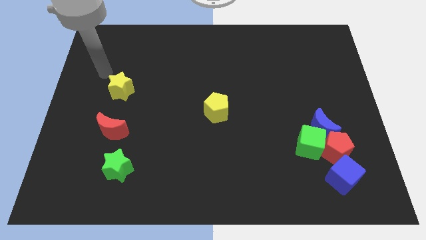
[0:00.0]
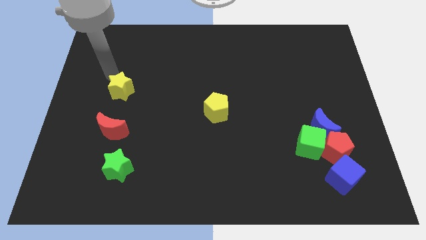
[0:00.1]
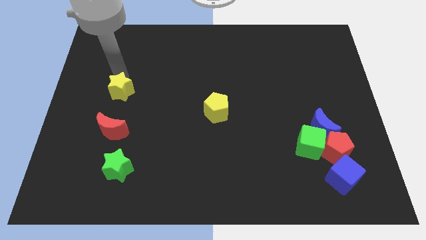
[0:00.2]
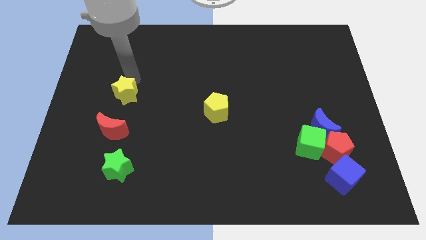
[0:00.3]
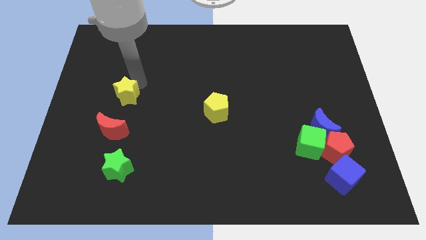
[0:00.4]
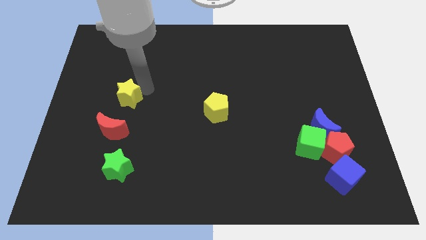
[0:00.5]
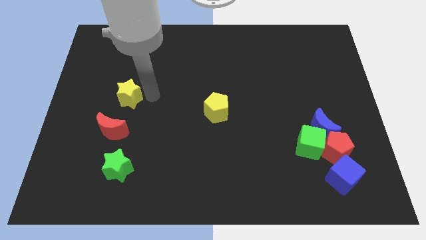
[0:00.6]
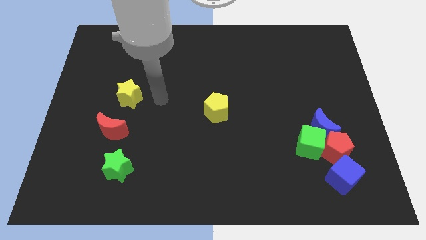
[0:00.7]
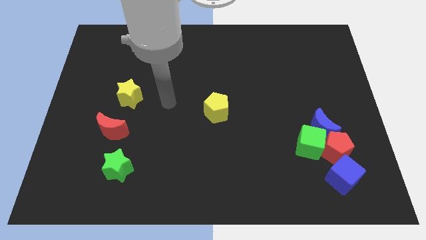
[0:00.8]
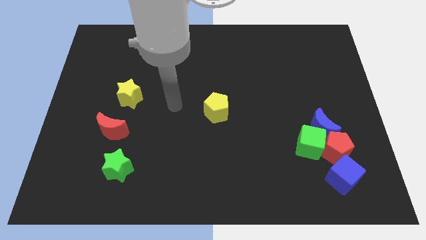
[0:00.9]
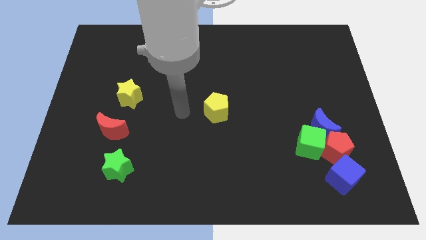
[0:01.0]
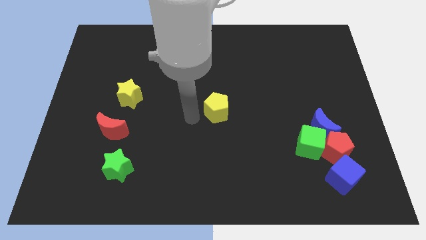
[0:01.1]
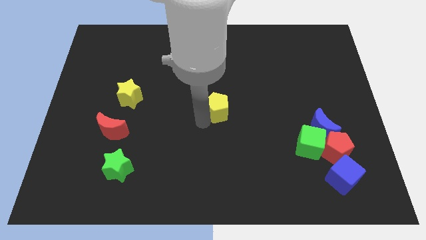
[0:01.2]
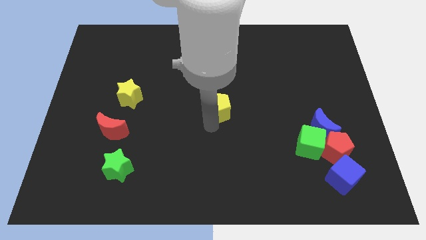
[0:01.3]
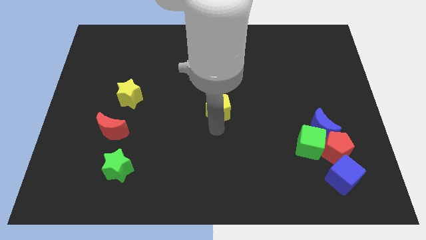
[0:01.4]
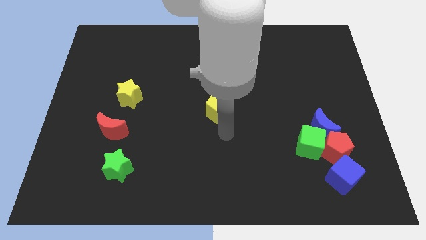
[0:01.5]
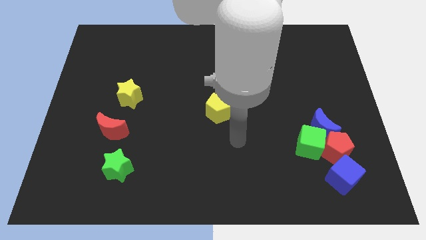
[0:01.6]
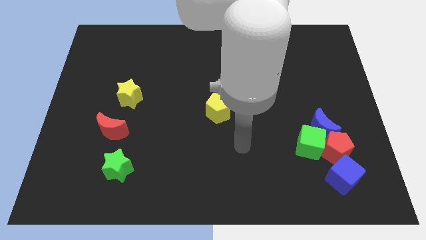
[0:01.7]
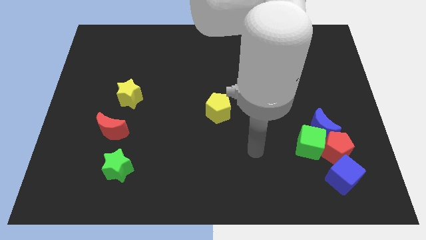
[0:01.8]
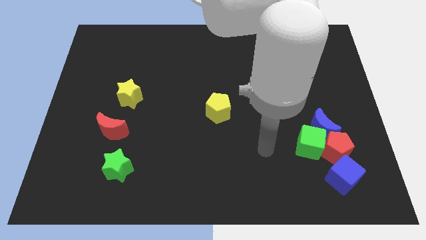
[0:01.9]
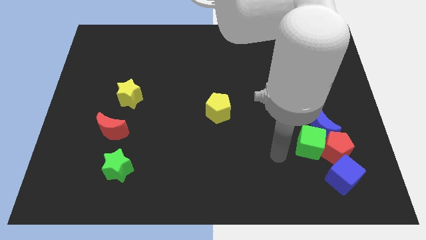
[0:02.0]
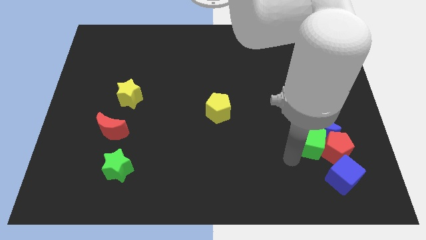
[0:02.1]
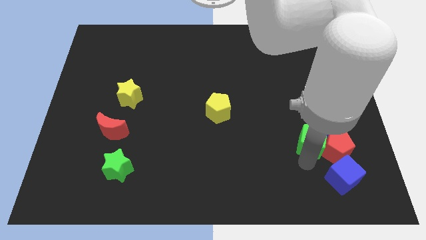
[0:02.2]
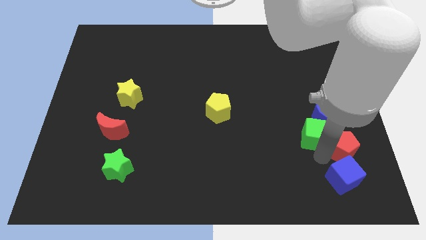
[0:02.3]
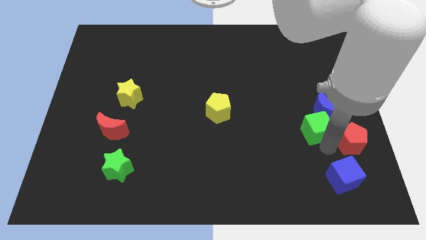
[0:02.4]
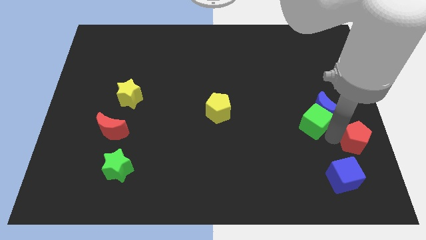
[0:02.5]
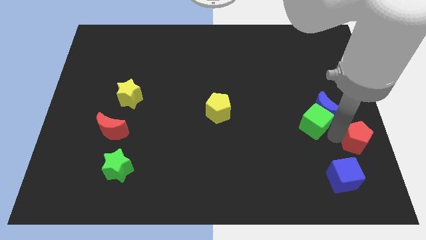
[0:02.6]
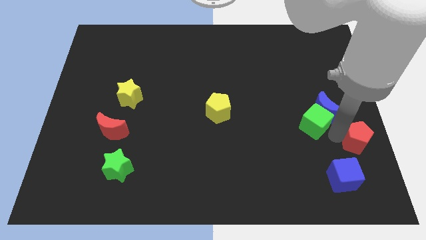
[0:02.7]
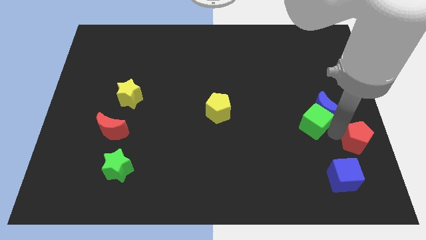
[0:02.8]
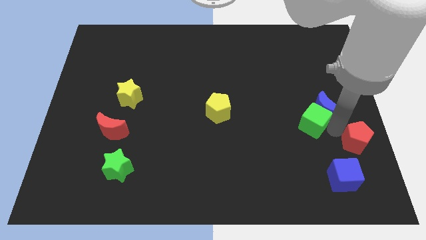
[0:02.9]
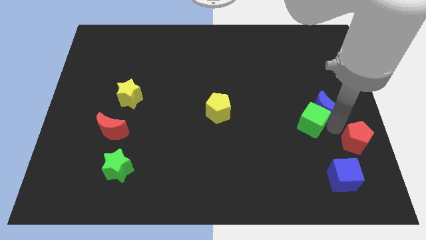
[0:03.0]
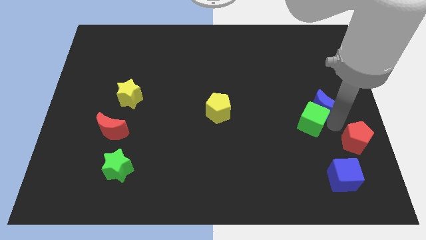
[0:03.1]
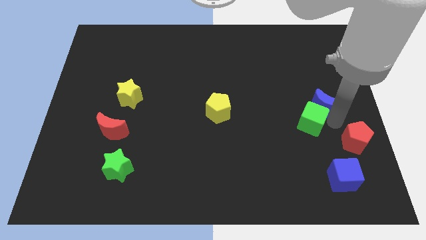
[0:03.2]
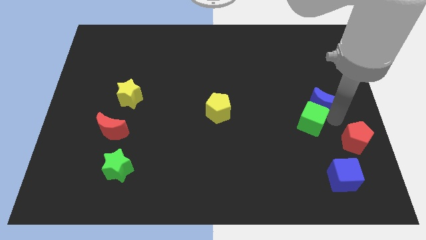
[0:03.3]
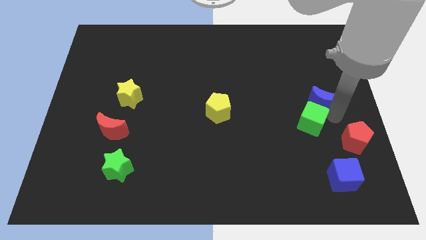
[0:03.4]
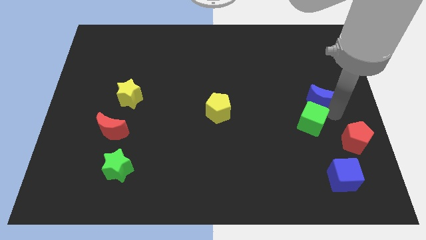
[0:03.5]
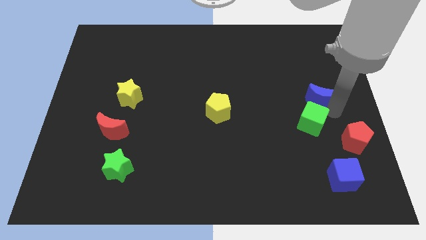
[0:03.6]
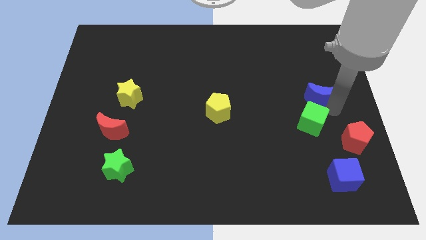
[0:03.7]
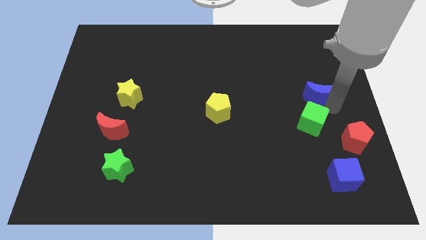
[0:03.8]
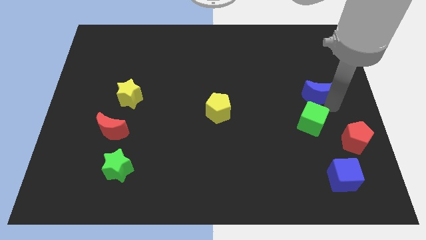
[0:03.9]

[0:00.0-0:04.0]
separate the blue moon from the green cube and red pentagon

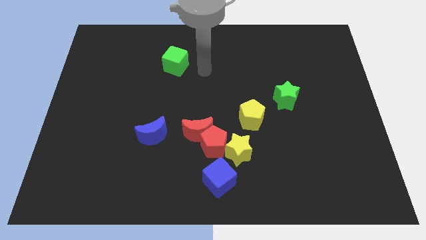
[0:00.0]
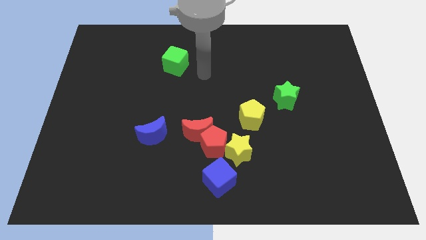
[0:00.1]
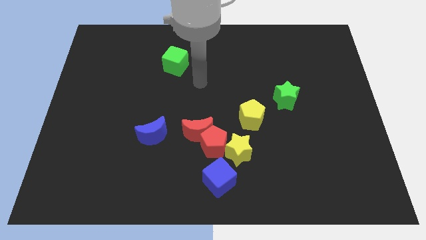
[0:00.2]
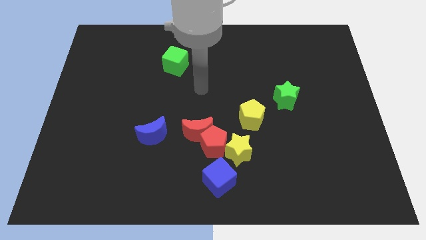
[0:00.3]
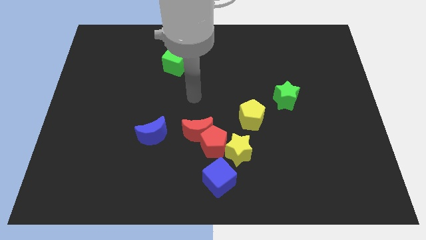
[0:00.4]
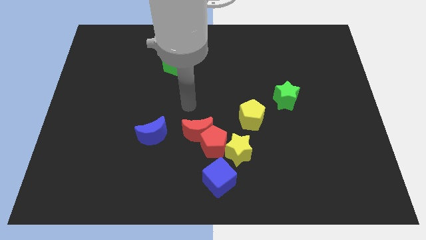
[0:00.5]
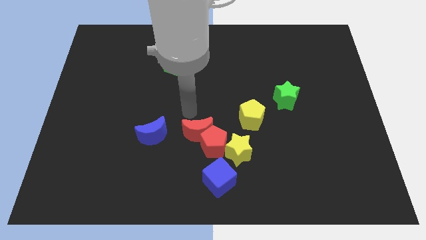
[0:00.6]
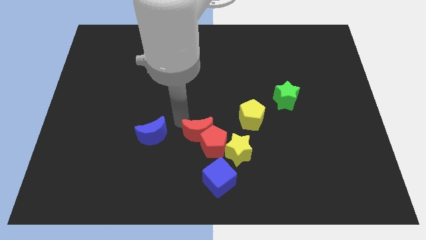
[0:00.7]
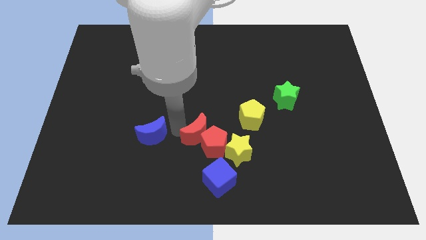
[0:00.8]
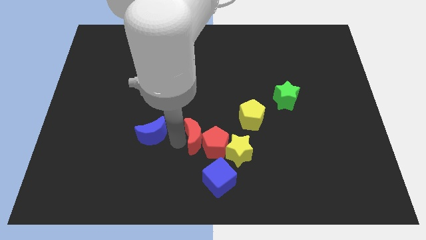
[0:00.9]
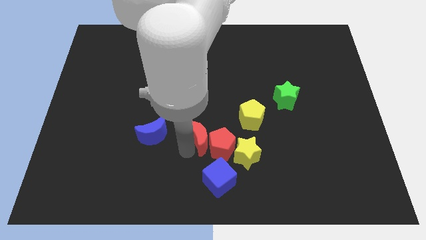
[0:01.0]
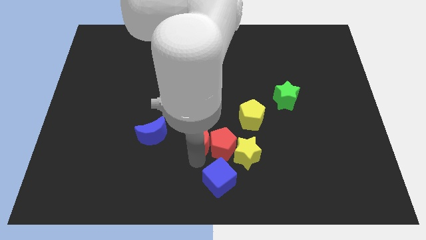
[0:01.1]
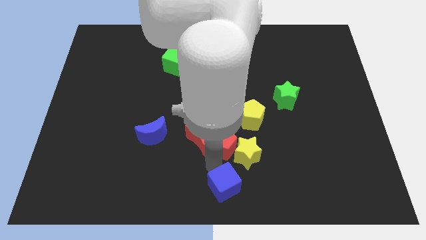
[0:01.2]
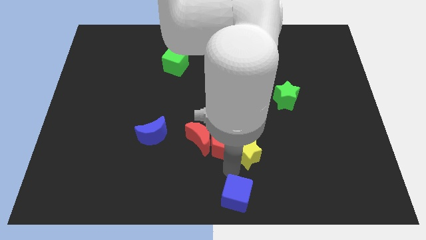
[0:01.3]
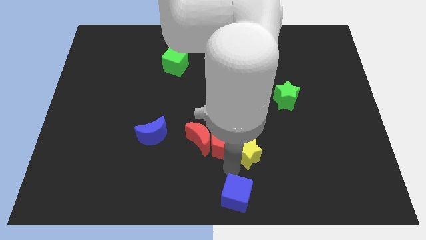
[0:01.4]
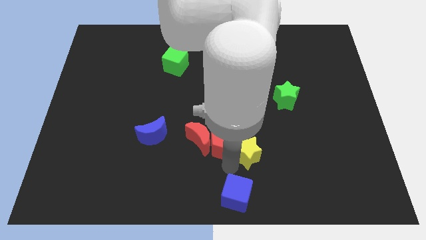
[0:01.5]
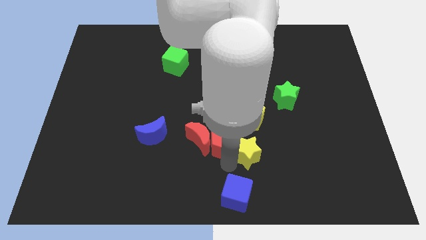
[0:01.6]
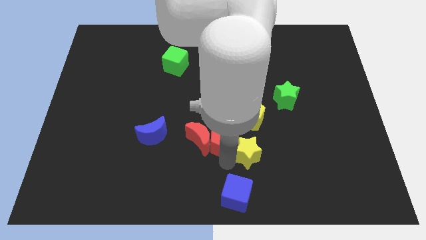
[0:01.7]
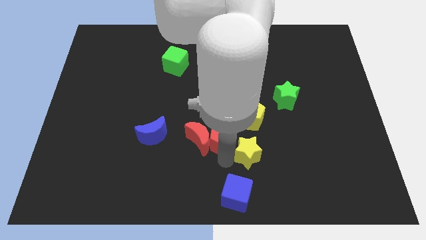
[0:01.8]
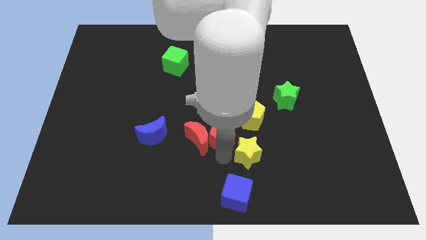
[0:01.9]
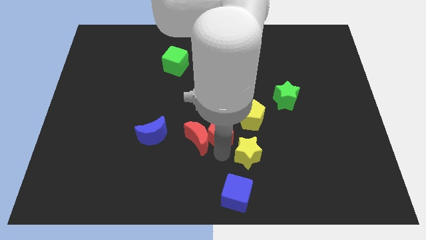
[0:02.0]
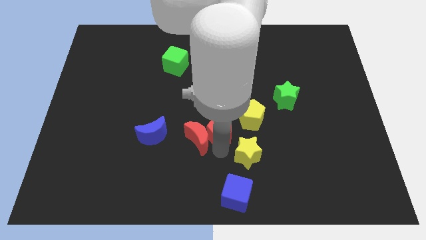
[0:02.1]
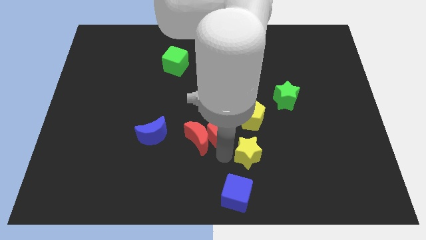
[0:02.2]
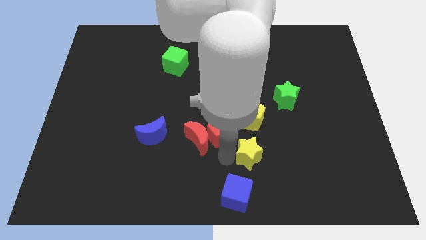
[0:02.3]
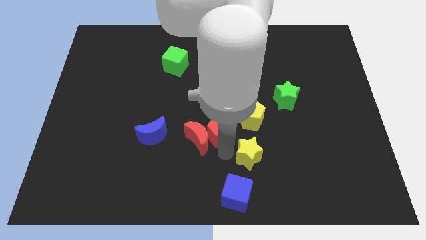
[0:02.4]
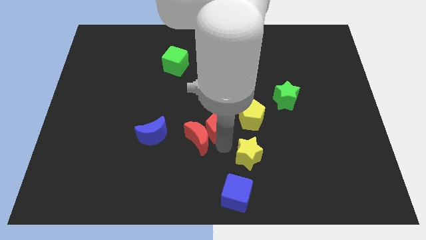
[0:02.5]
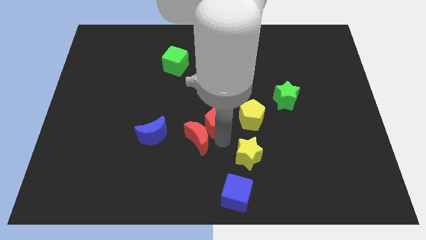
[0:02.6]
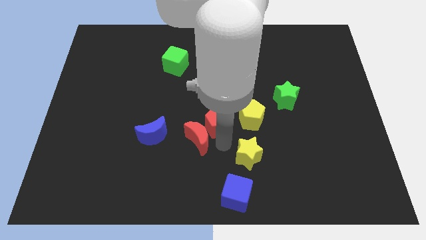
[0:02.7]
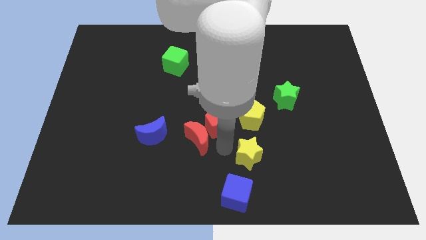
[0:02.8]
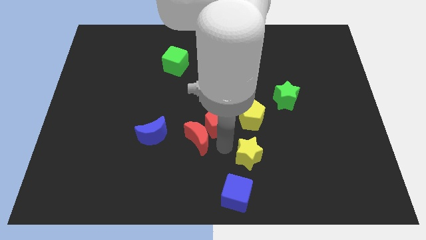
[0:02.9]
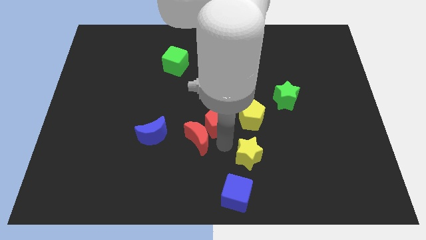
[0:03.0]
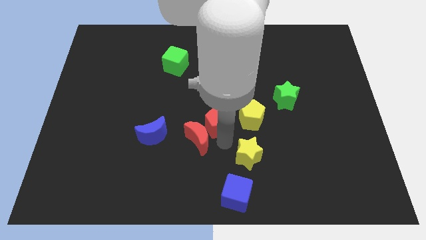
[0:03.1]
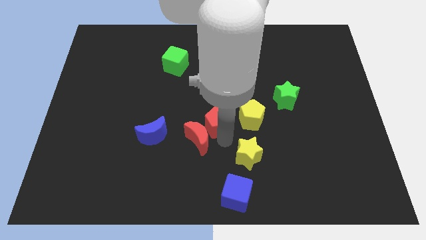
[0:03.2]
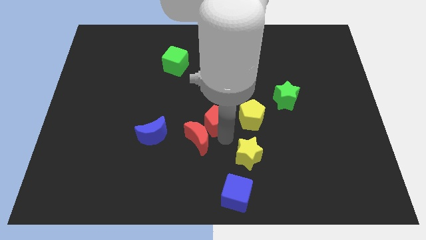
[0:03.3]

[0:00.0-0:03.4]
pull the red pentagon apart from the group of blocks

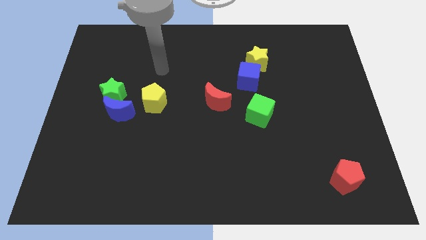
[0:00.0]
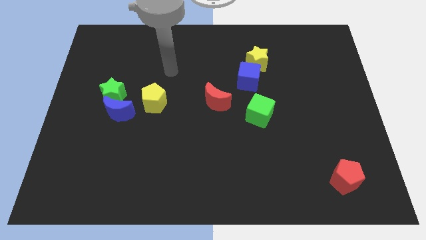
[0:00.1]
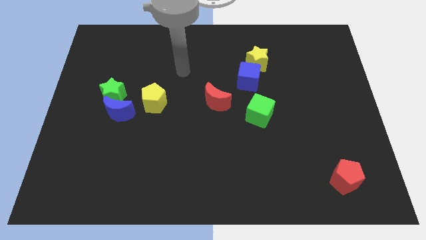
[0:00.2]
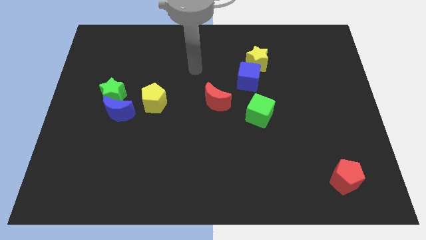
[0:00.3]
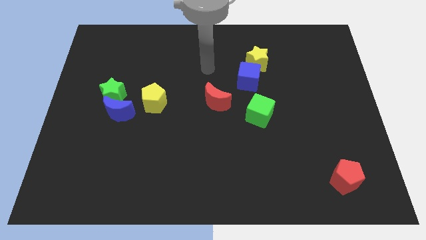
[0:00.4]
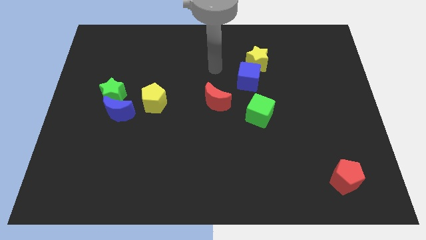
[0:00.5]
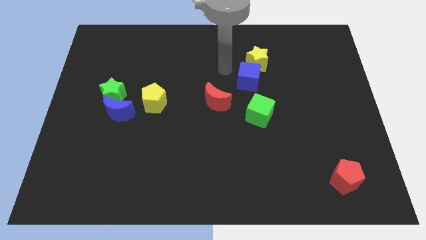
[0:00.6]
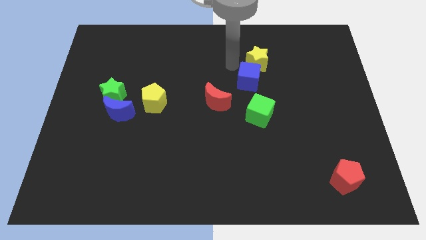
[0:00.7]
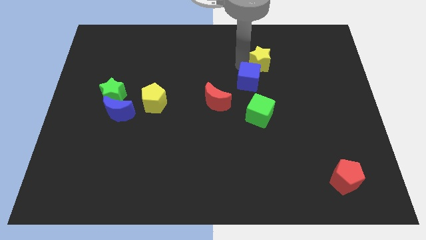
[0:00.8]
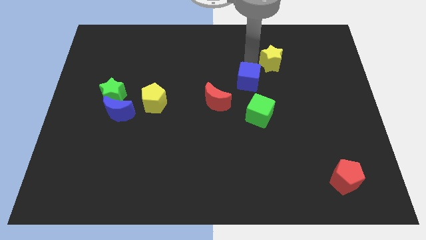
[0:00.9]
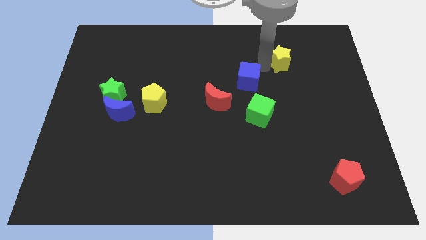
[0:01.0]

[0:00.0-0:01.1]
pull the blue cube apart from the yellow star

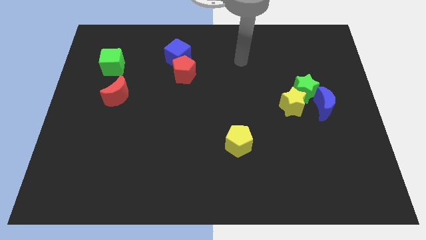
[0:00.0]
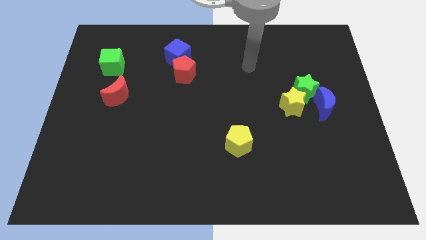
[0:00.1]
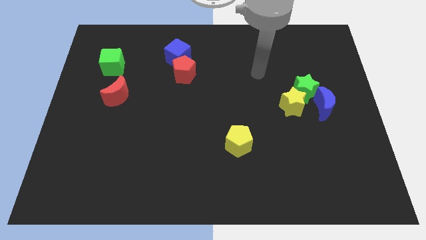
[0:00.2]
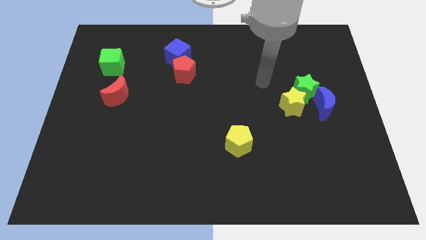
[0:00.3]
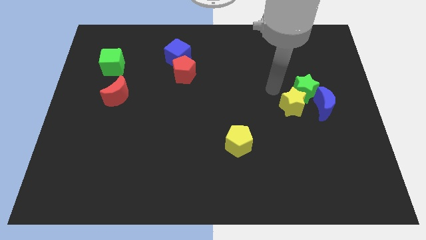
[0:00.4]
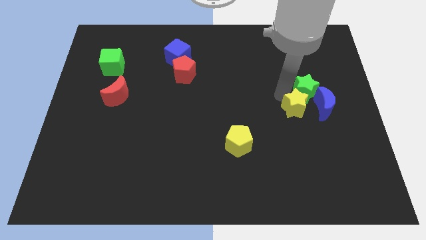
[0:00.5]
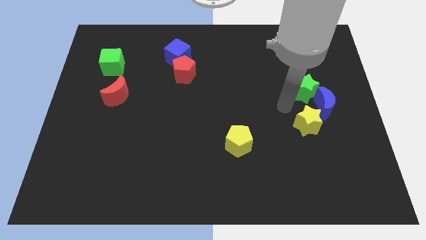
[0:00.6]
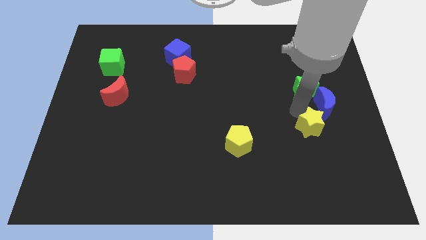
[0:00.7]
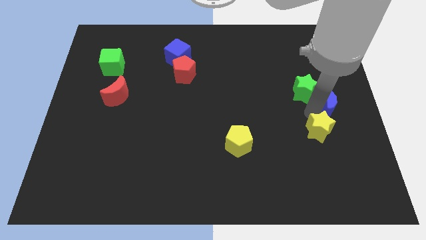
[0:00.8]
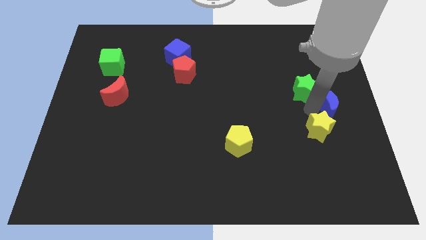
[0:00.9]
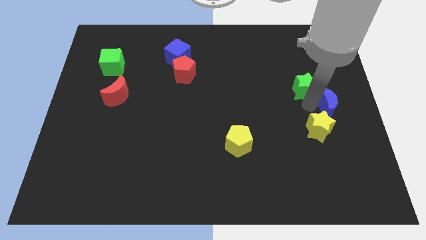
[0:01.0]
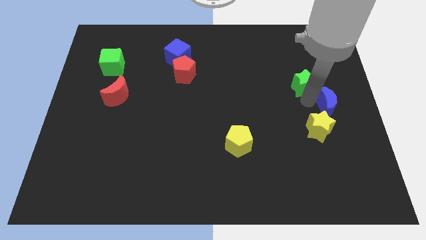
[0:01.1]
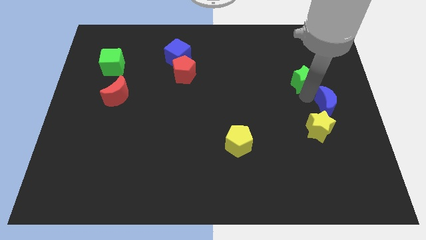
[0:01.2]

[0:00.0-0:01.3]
move the green star away from the yellow star and blue moon
